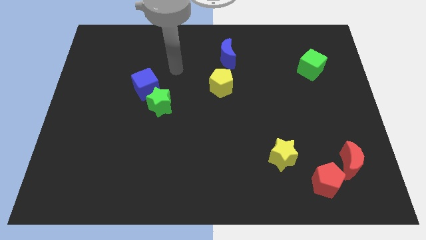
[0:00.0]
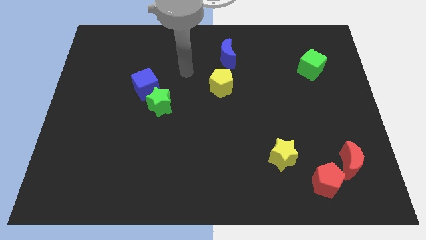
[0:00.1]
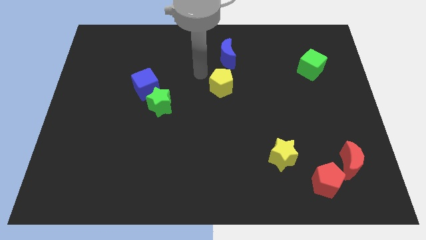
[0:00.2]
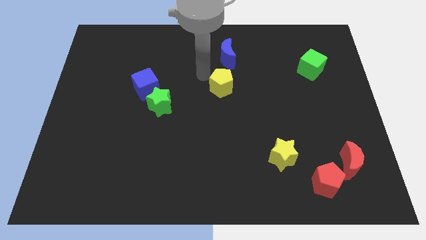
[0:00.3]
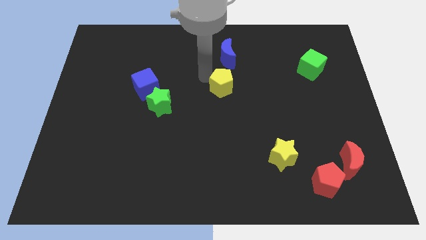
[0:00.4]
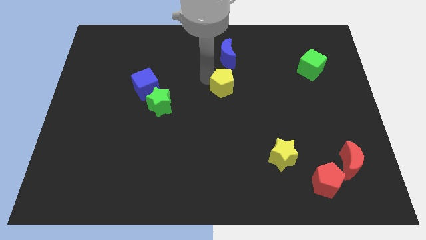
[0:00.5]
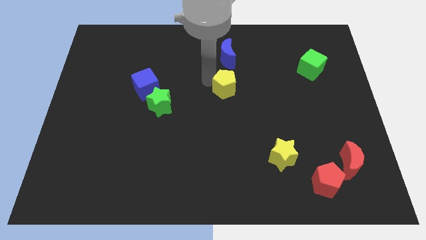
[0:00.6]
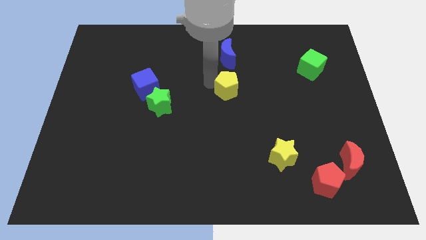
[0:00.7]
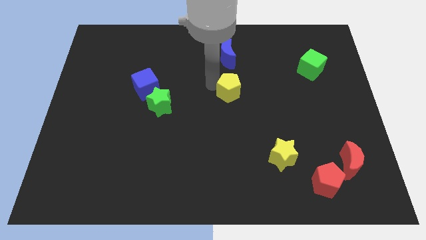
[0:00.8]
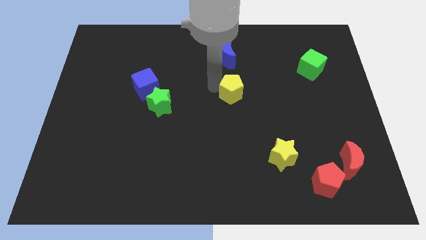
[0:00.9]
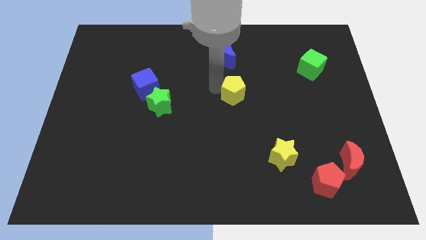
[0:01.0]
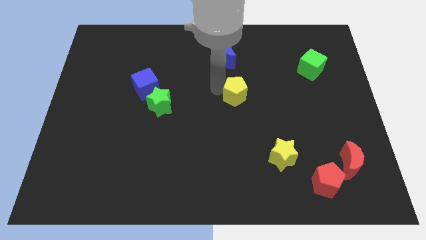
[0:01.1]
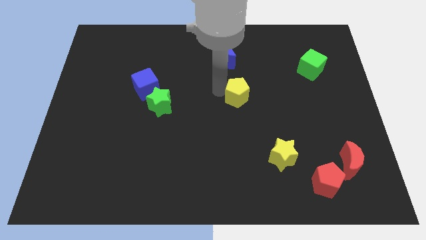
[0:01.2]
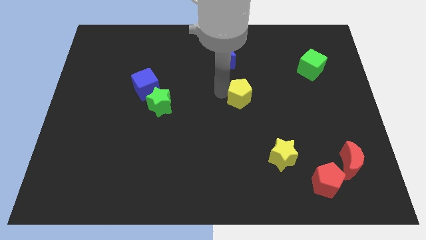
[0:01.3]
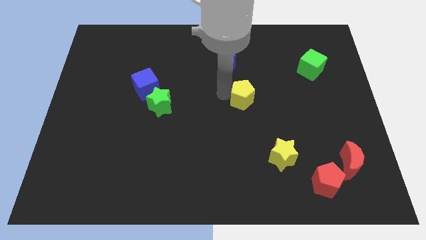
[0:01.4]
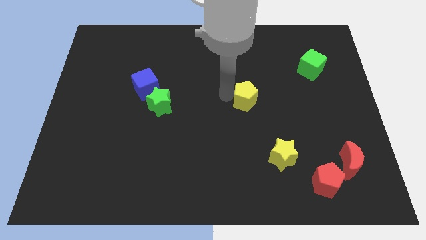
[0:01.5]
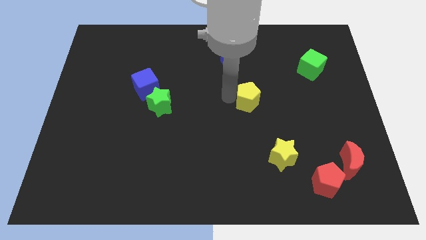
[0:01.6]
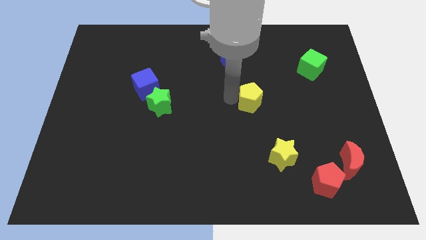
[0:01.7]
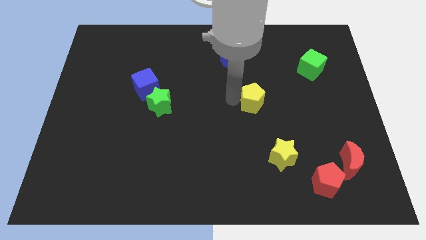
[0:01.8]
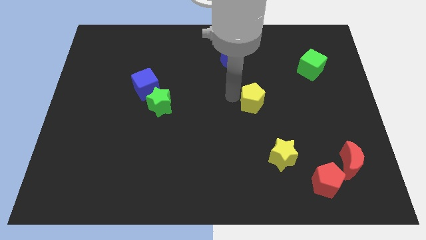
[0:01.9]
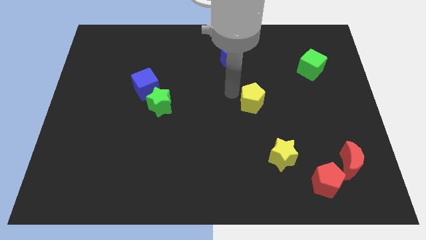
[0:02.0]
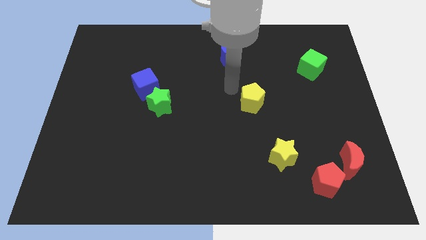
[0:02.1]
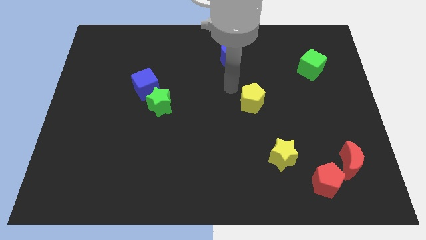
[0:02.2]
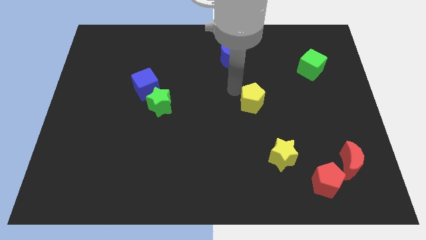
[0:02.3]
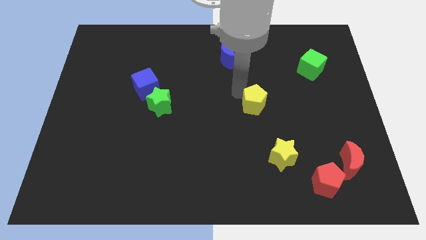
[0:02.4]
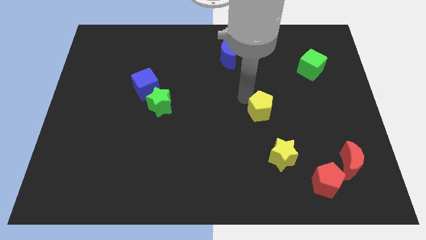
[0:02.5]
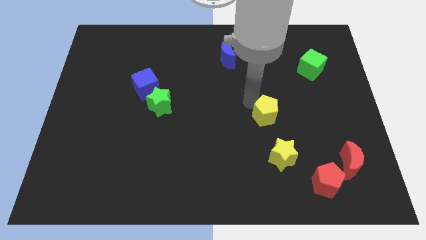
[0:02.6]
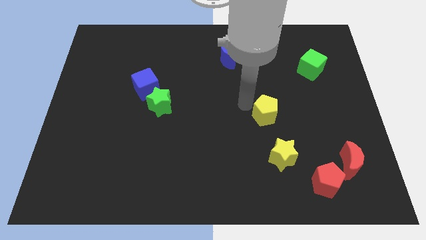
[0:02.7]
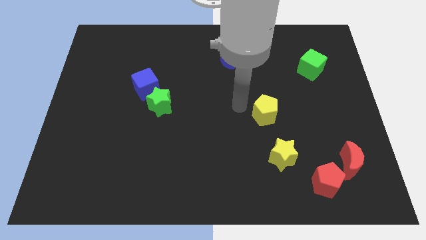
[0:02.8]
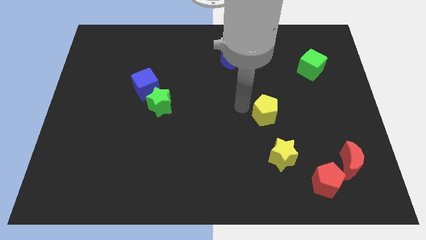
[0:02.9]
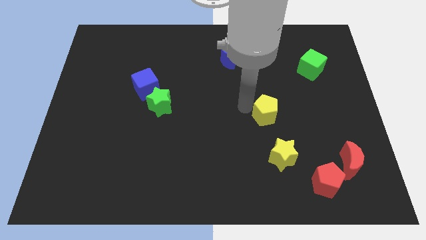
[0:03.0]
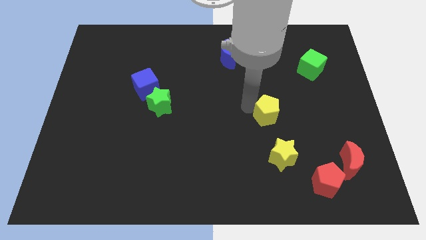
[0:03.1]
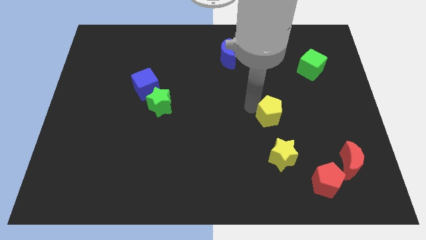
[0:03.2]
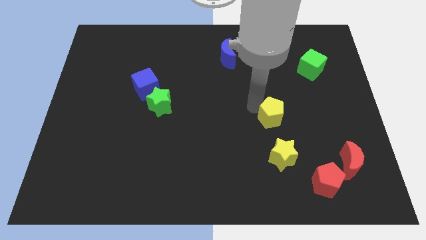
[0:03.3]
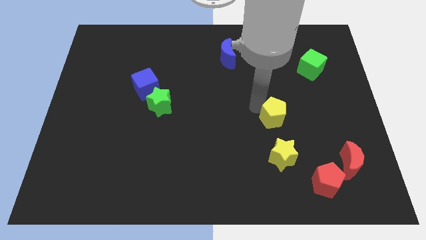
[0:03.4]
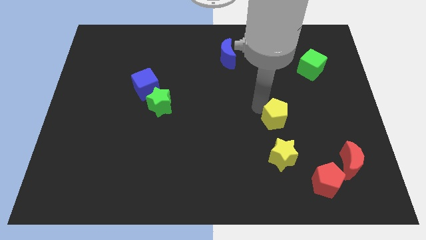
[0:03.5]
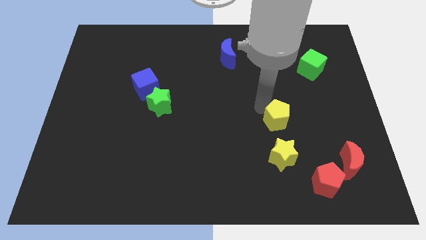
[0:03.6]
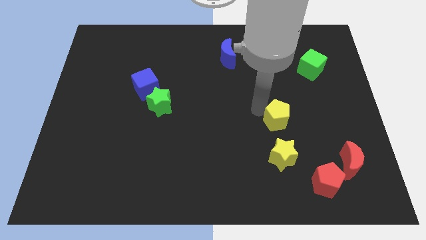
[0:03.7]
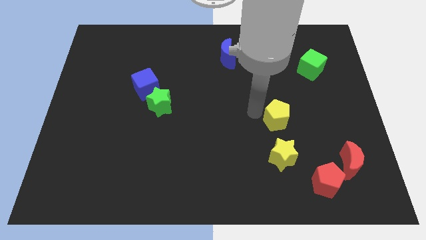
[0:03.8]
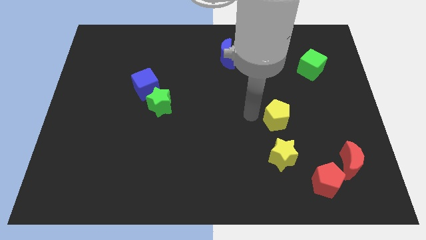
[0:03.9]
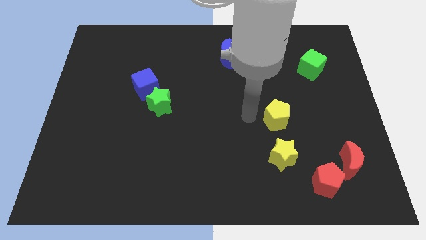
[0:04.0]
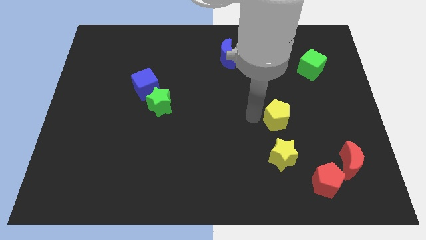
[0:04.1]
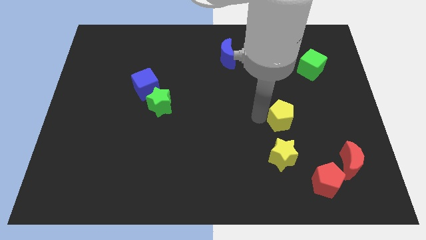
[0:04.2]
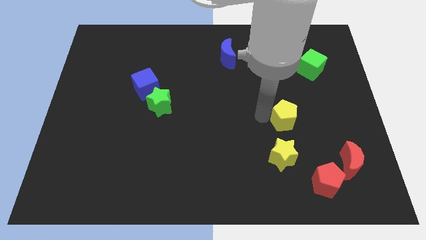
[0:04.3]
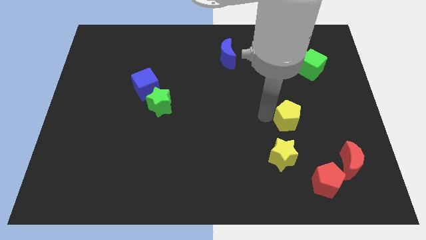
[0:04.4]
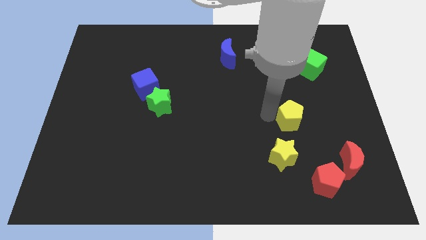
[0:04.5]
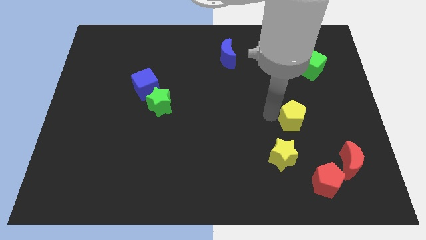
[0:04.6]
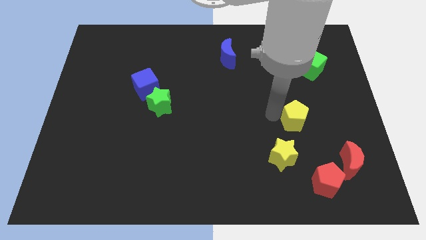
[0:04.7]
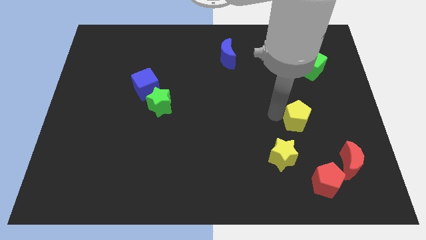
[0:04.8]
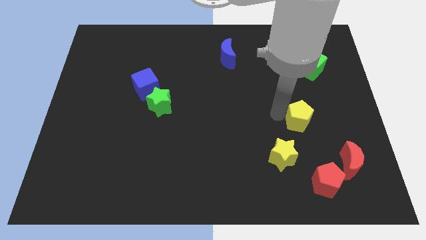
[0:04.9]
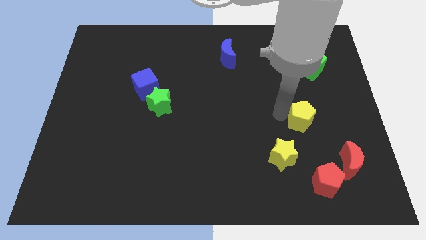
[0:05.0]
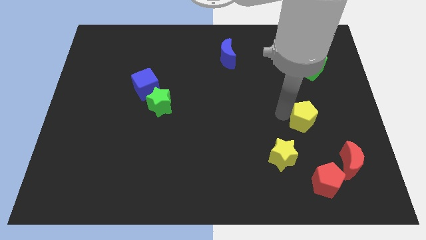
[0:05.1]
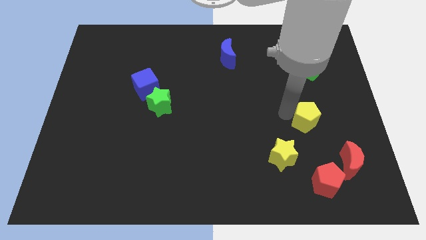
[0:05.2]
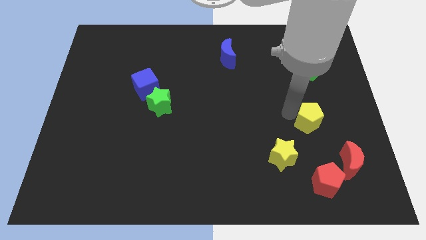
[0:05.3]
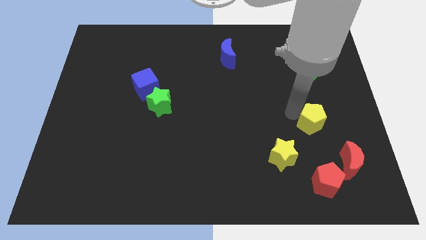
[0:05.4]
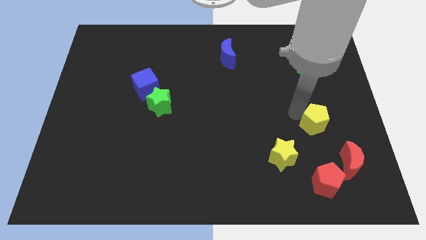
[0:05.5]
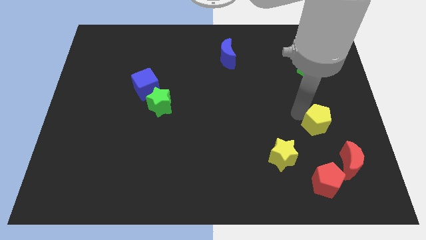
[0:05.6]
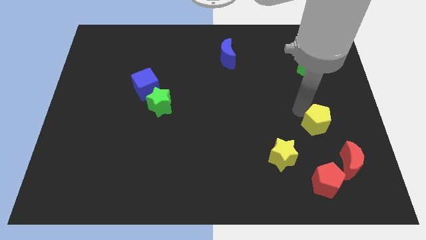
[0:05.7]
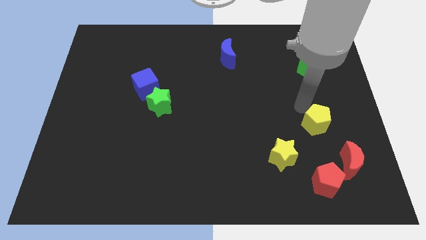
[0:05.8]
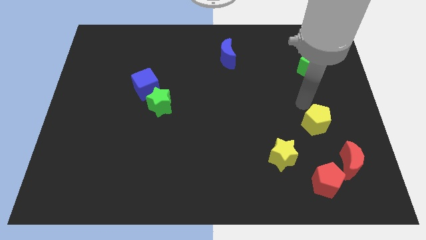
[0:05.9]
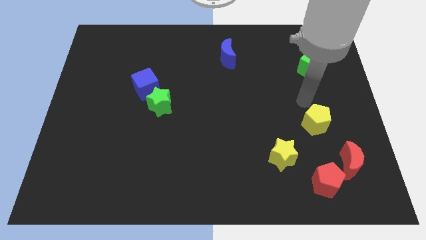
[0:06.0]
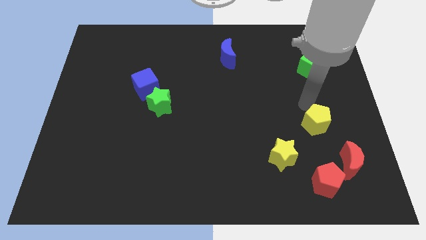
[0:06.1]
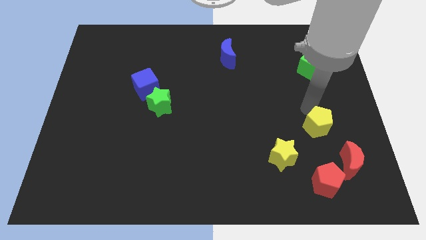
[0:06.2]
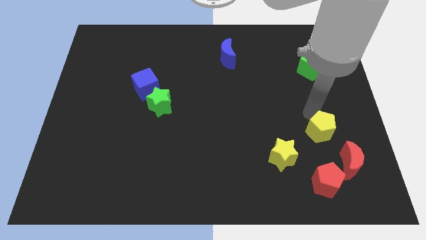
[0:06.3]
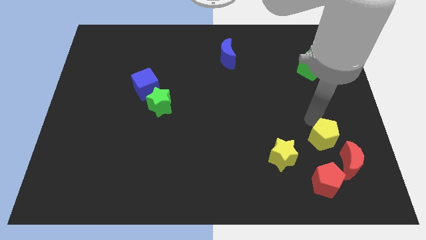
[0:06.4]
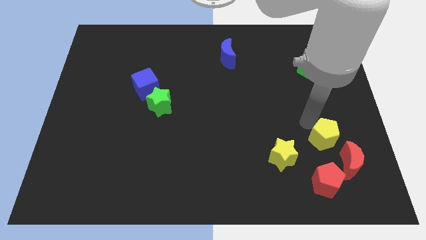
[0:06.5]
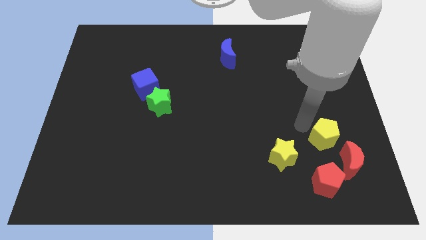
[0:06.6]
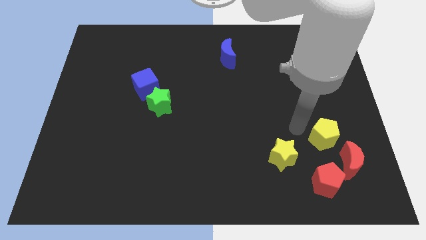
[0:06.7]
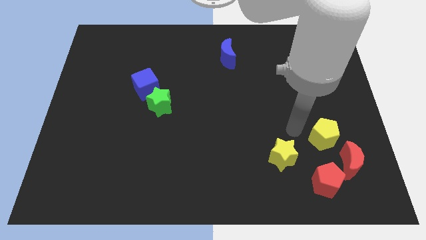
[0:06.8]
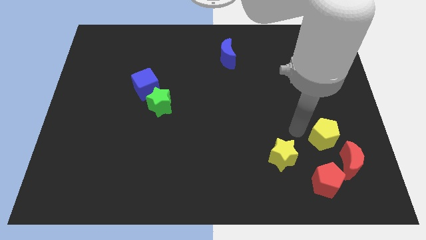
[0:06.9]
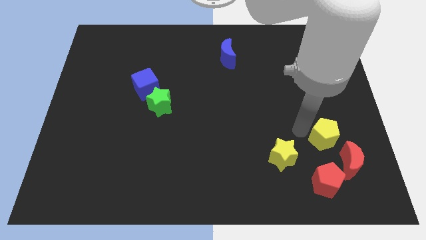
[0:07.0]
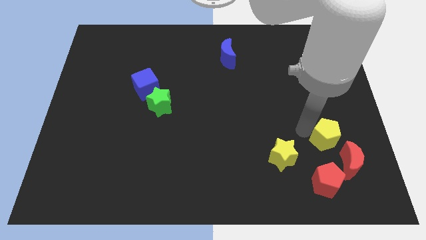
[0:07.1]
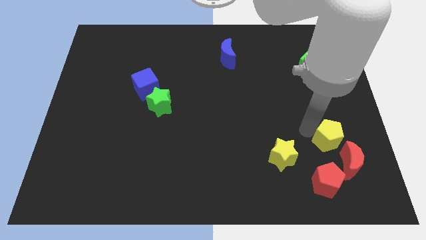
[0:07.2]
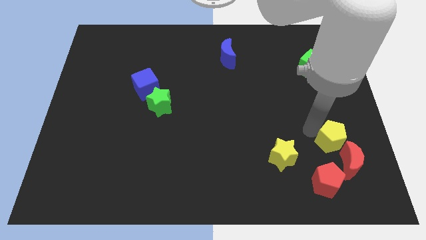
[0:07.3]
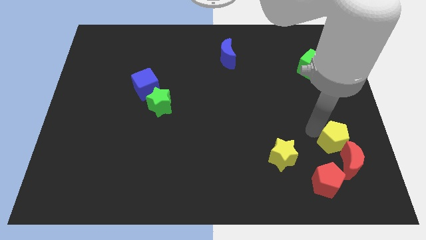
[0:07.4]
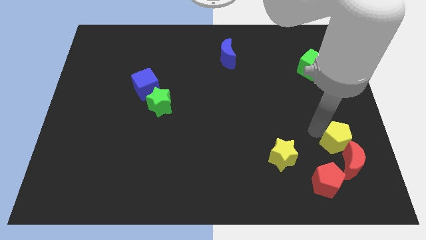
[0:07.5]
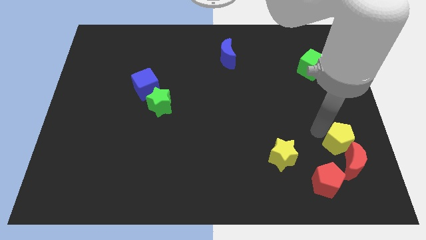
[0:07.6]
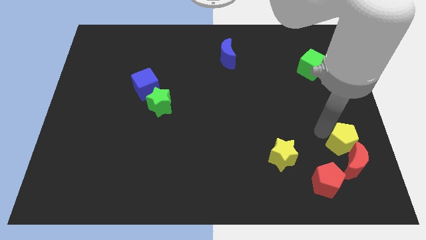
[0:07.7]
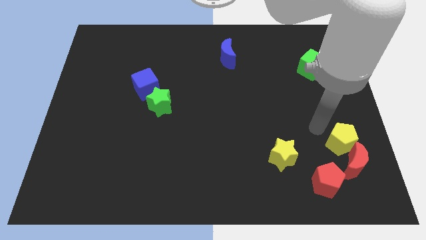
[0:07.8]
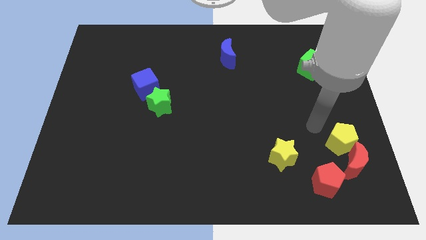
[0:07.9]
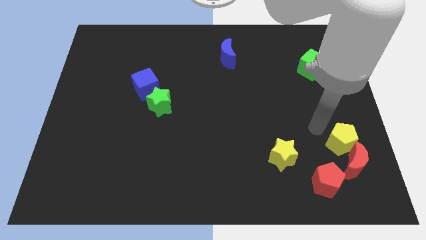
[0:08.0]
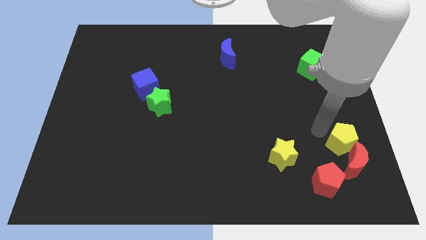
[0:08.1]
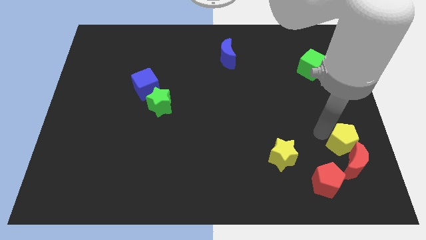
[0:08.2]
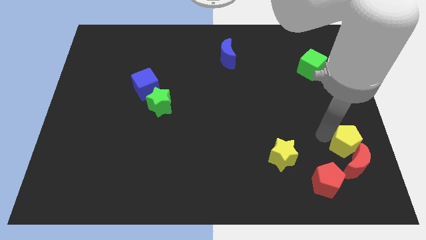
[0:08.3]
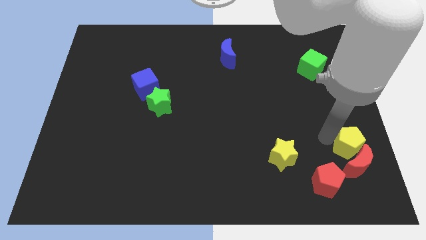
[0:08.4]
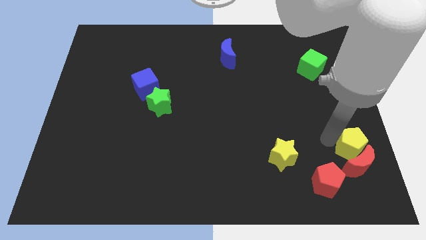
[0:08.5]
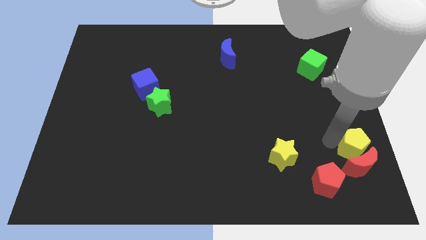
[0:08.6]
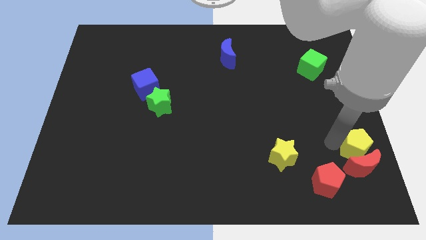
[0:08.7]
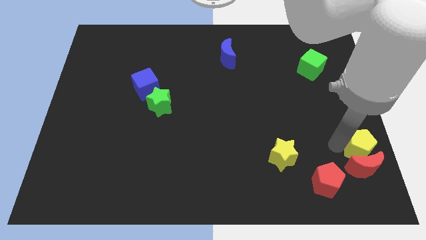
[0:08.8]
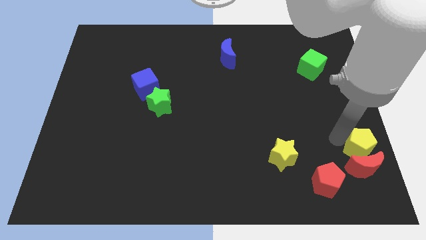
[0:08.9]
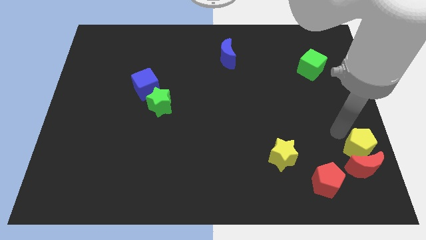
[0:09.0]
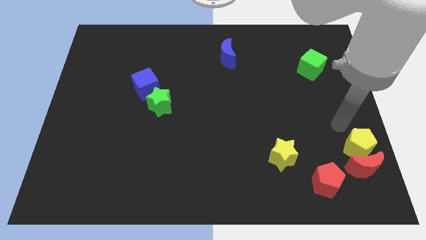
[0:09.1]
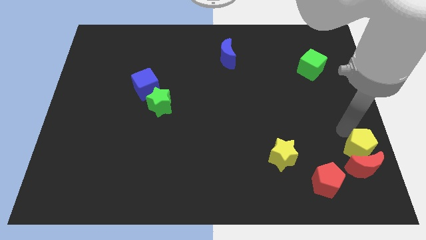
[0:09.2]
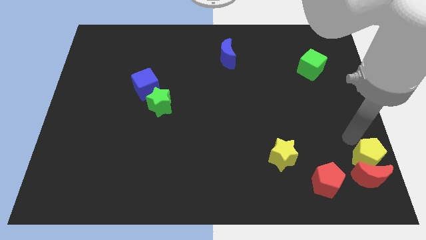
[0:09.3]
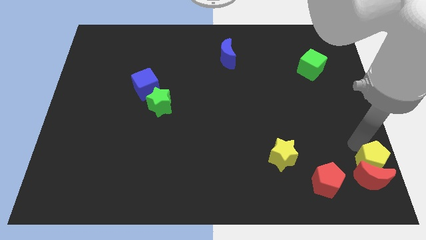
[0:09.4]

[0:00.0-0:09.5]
put the yellow pentagon to the bottom right corner
